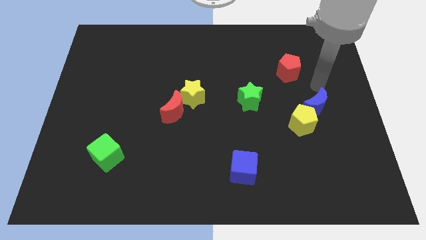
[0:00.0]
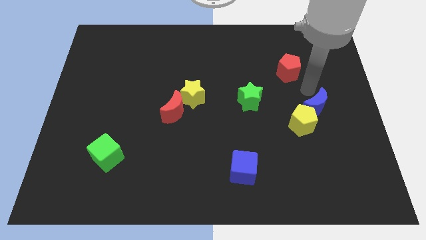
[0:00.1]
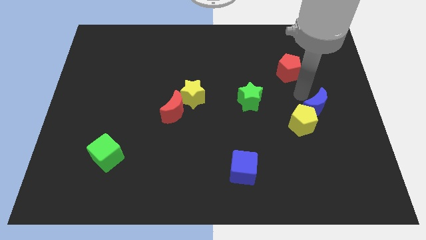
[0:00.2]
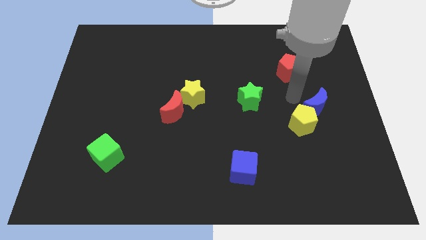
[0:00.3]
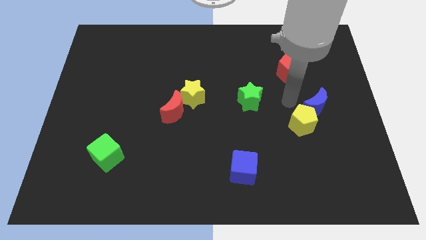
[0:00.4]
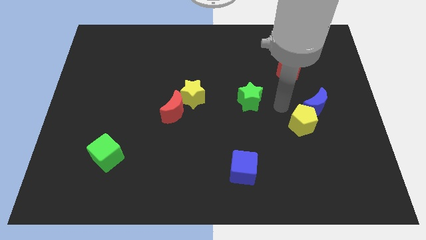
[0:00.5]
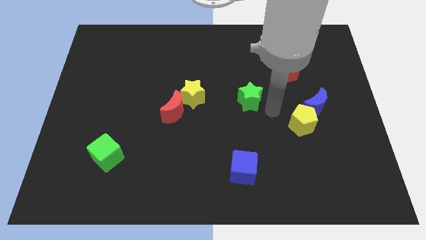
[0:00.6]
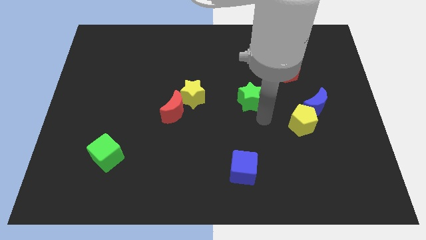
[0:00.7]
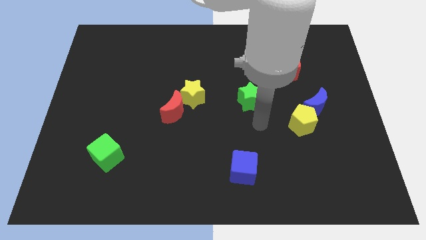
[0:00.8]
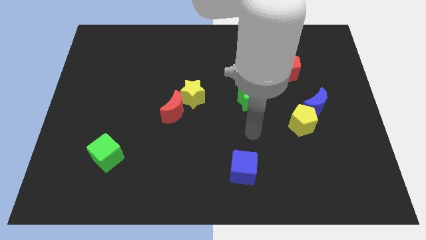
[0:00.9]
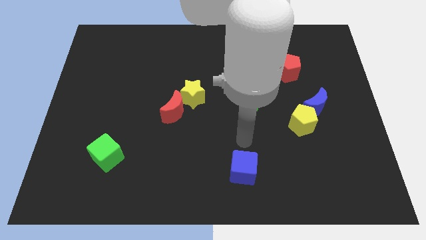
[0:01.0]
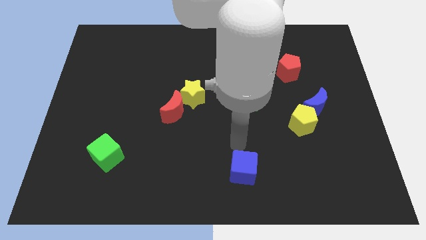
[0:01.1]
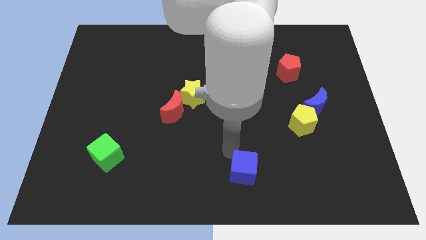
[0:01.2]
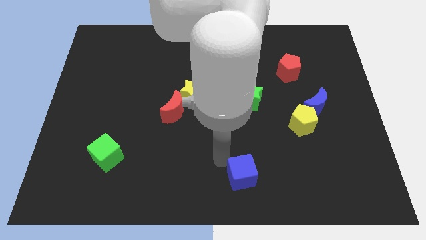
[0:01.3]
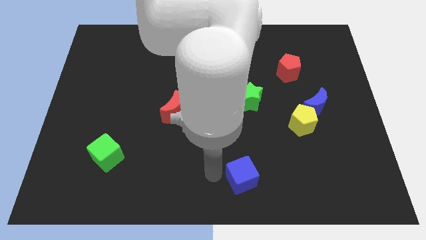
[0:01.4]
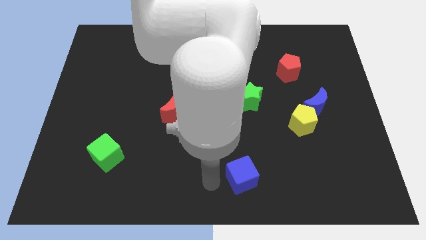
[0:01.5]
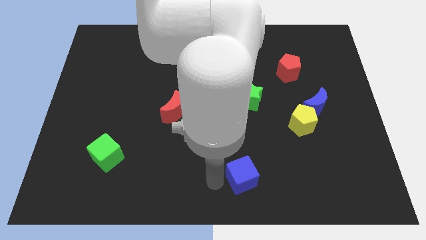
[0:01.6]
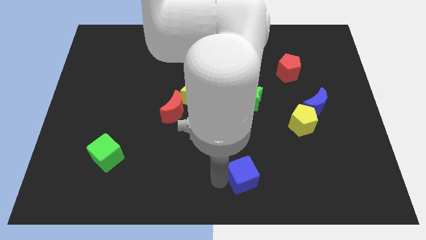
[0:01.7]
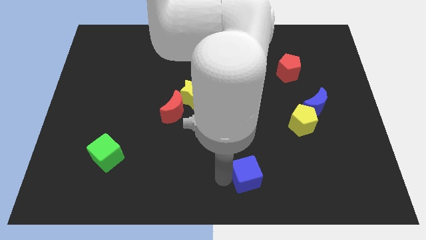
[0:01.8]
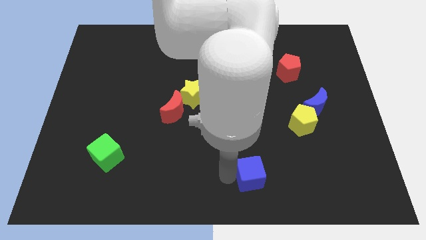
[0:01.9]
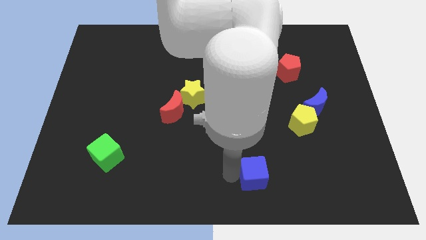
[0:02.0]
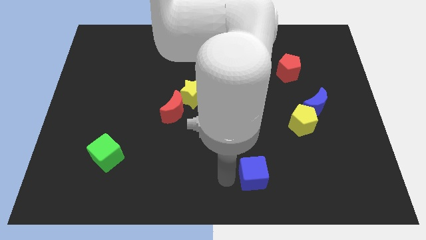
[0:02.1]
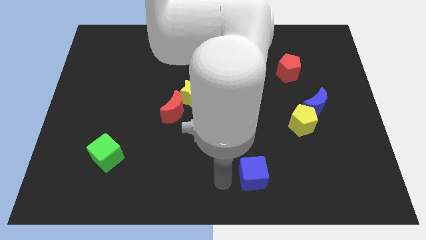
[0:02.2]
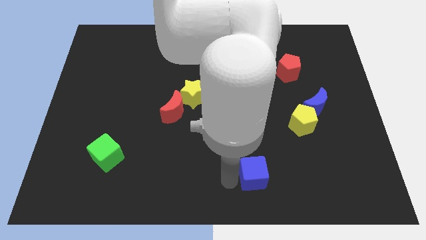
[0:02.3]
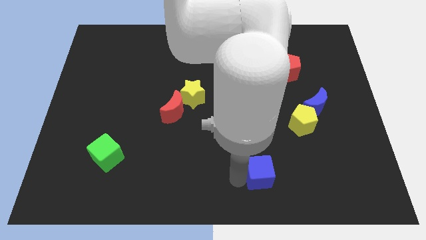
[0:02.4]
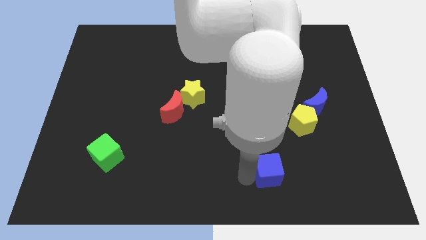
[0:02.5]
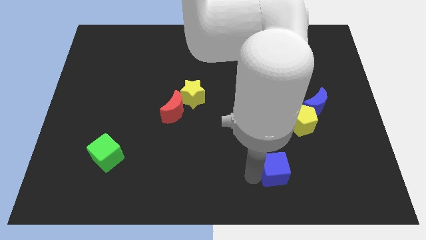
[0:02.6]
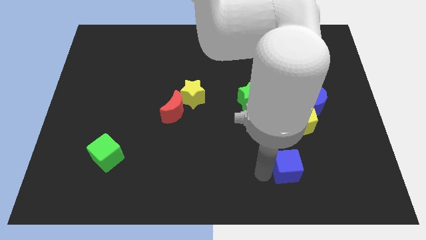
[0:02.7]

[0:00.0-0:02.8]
slightly move the blue cube to the right

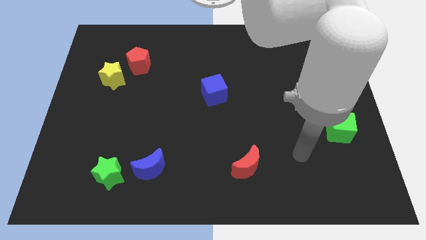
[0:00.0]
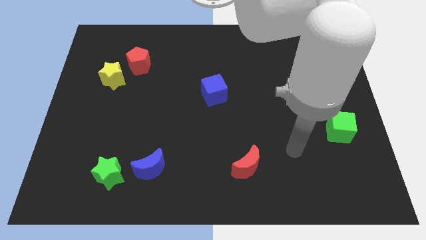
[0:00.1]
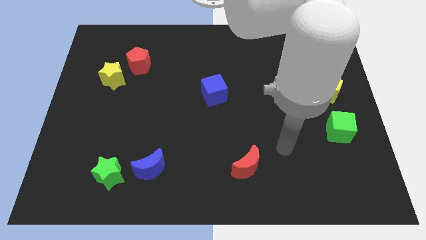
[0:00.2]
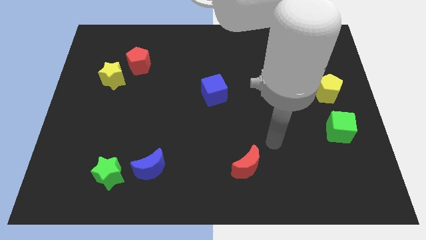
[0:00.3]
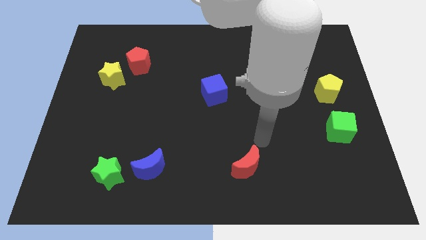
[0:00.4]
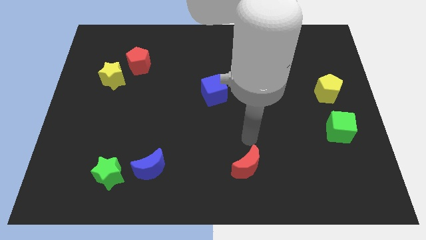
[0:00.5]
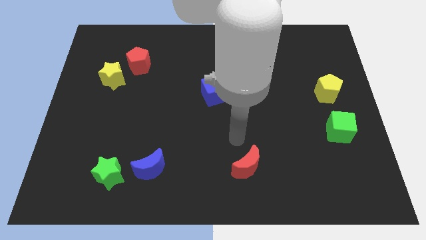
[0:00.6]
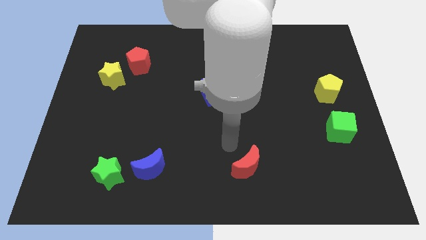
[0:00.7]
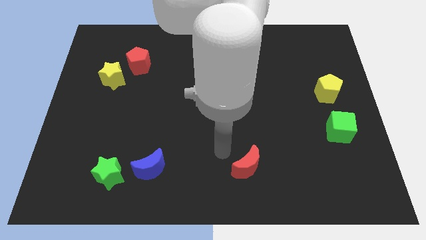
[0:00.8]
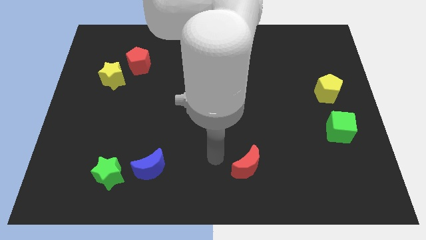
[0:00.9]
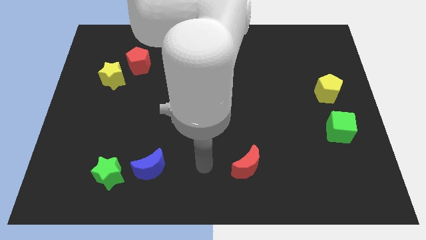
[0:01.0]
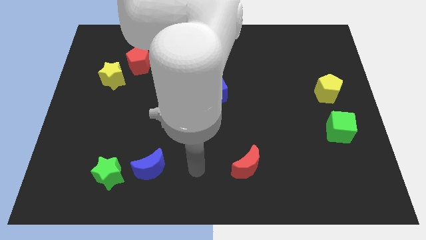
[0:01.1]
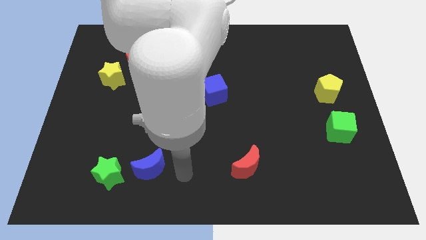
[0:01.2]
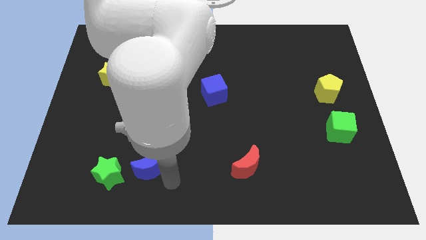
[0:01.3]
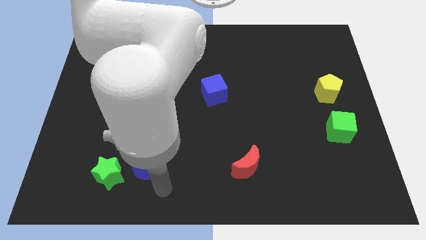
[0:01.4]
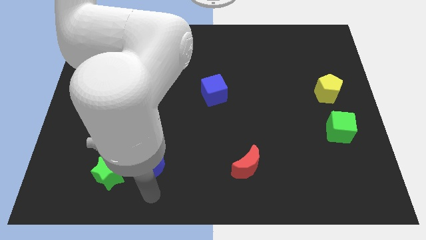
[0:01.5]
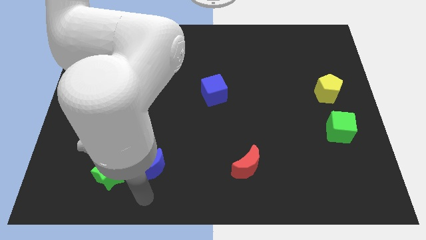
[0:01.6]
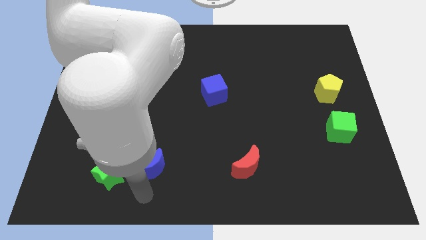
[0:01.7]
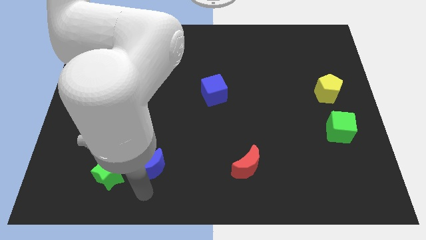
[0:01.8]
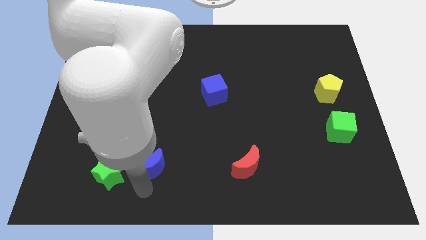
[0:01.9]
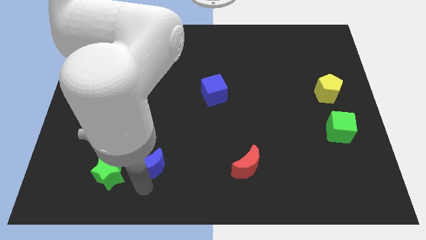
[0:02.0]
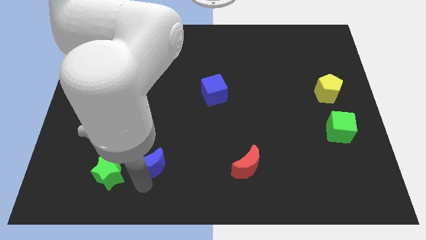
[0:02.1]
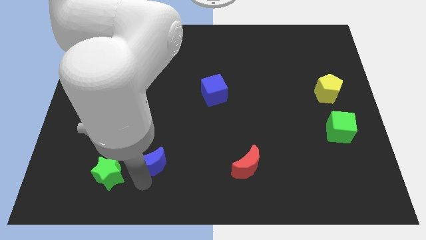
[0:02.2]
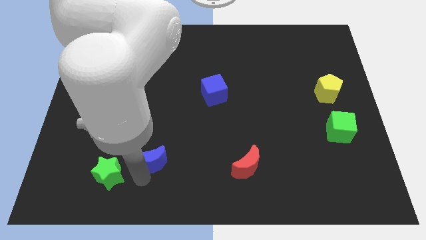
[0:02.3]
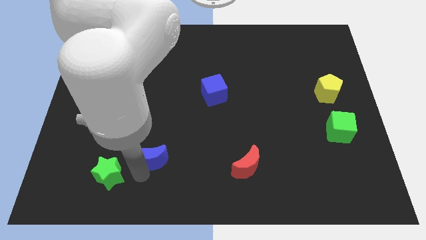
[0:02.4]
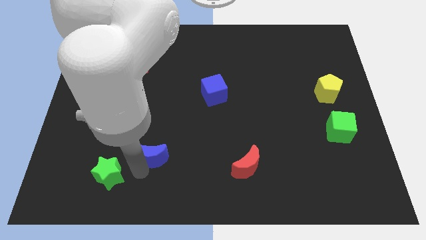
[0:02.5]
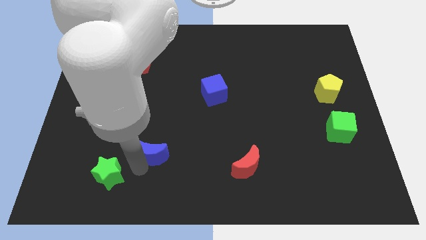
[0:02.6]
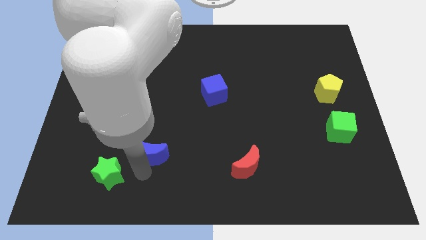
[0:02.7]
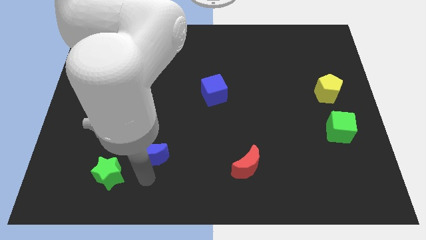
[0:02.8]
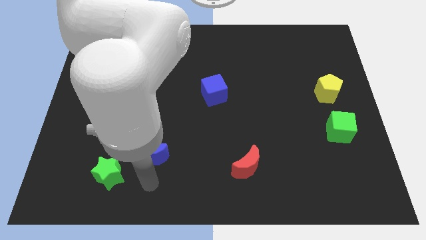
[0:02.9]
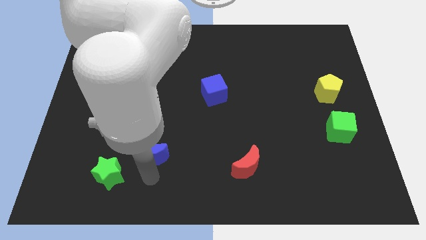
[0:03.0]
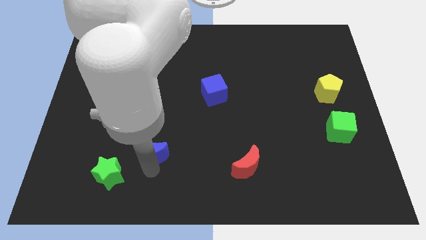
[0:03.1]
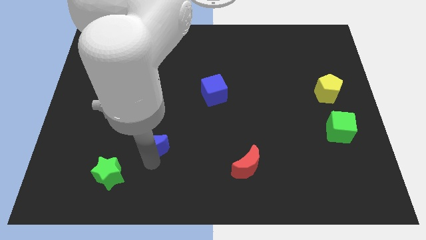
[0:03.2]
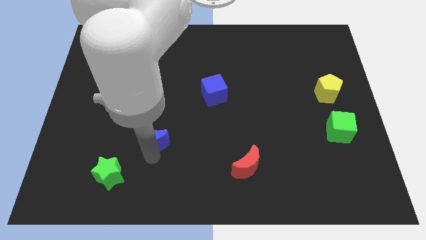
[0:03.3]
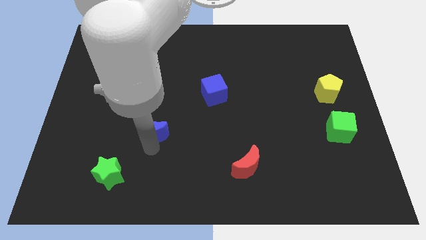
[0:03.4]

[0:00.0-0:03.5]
move the blue moon a bit upwards

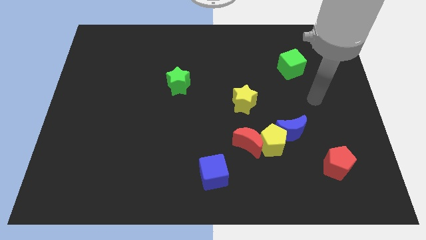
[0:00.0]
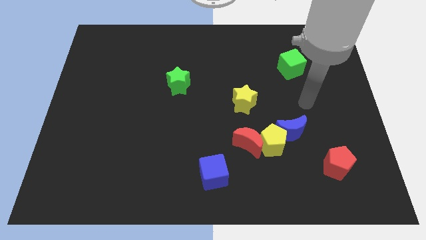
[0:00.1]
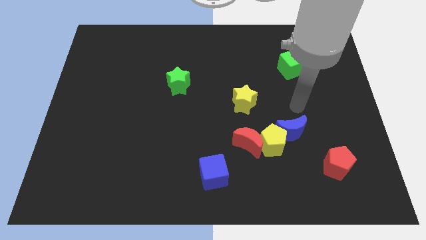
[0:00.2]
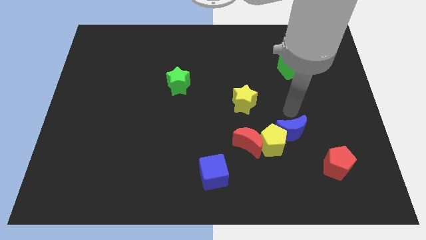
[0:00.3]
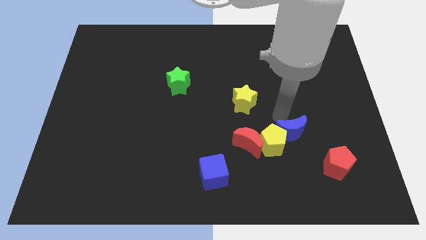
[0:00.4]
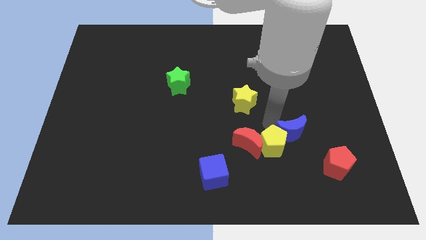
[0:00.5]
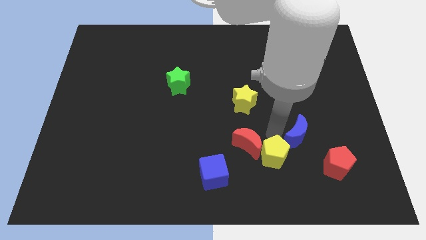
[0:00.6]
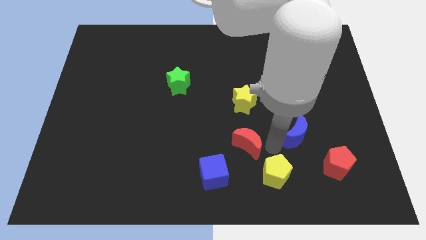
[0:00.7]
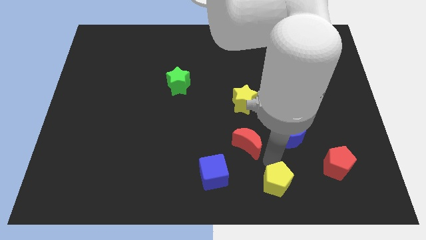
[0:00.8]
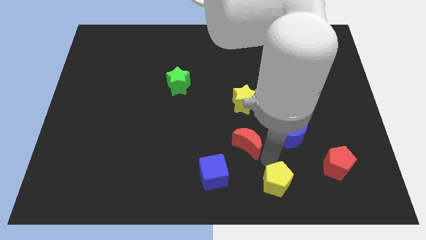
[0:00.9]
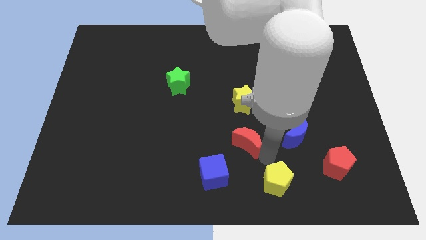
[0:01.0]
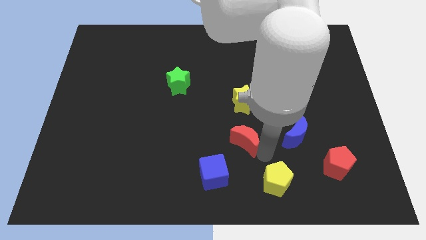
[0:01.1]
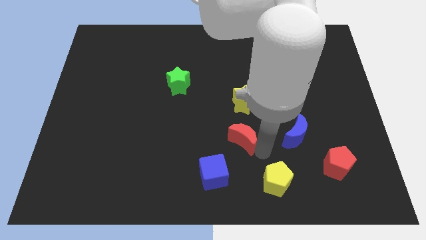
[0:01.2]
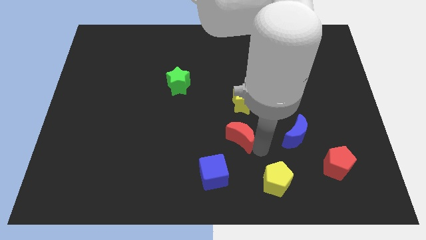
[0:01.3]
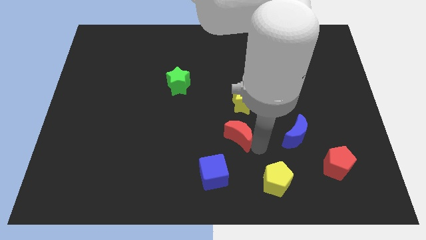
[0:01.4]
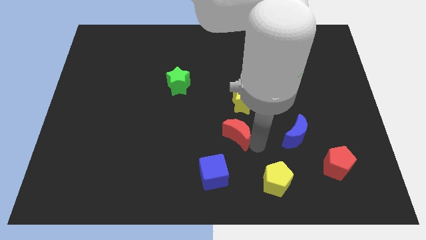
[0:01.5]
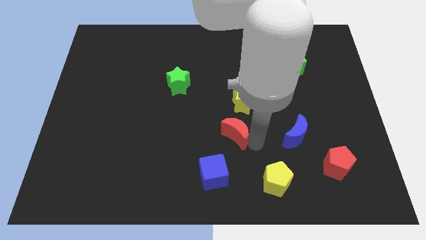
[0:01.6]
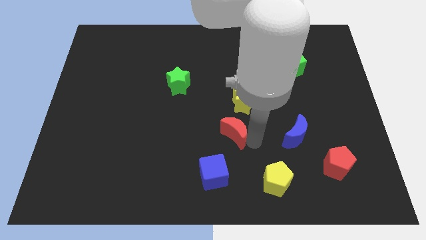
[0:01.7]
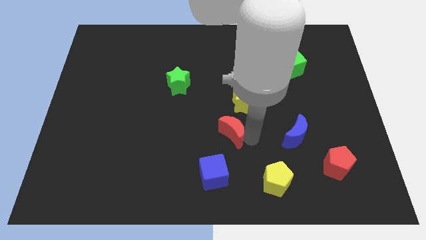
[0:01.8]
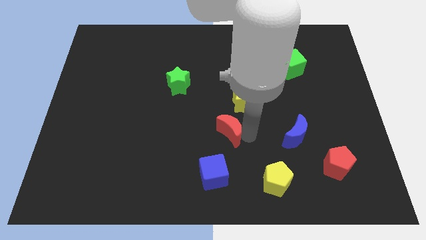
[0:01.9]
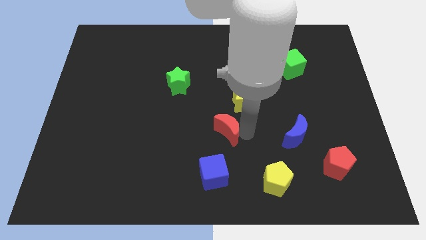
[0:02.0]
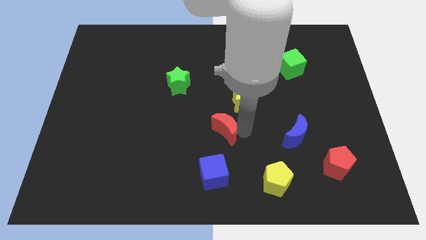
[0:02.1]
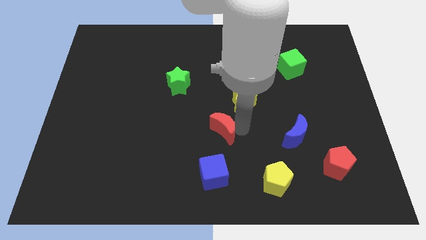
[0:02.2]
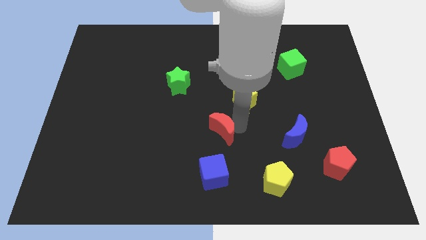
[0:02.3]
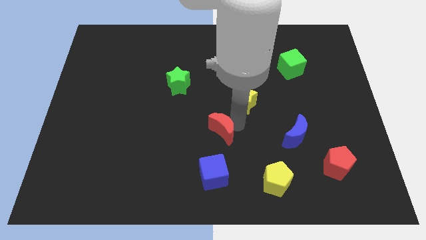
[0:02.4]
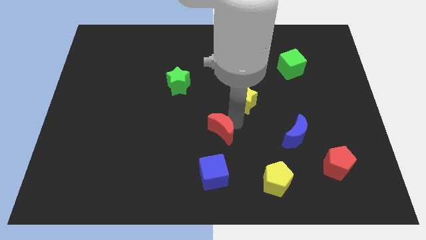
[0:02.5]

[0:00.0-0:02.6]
move the red moon up and left a little
